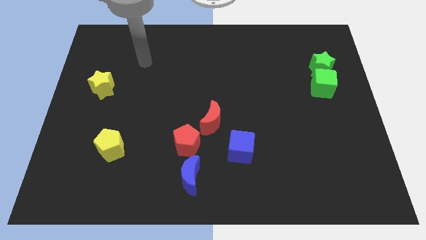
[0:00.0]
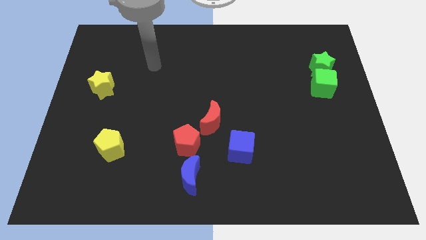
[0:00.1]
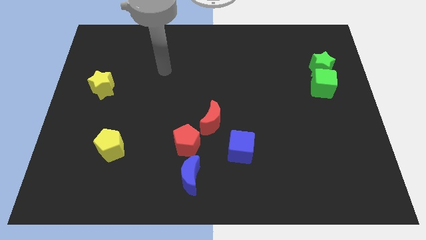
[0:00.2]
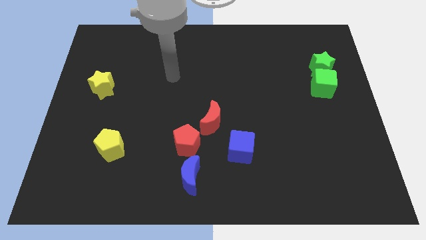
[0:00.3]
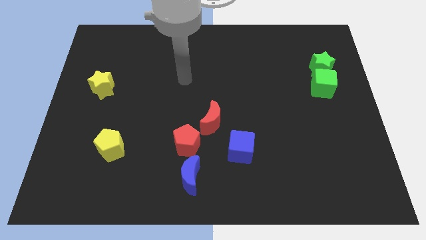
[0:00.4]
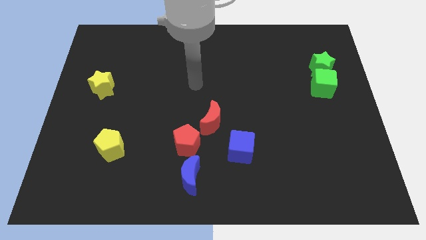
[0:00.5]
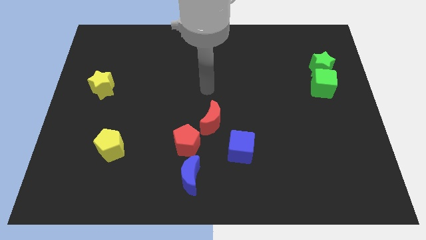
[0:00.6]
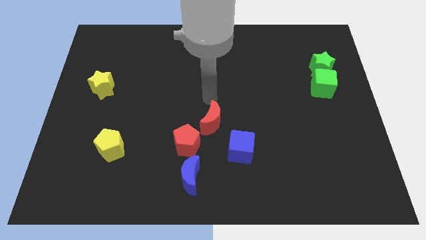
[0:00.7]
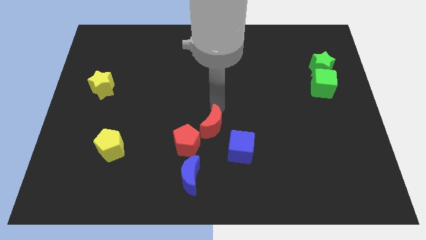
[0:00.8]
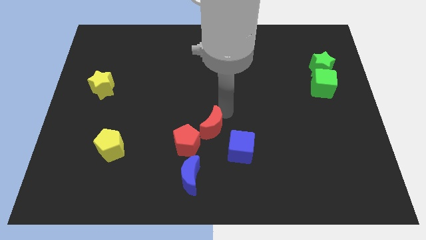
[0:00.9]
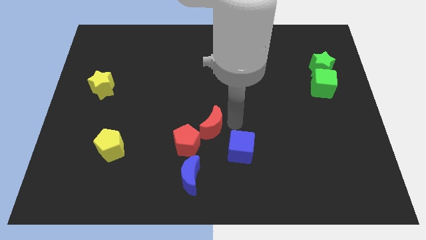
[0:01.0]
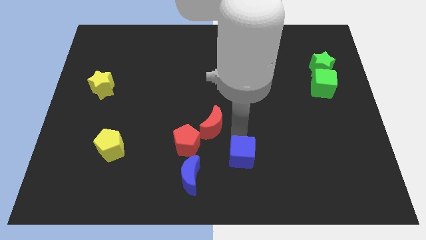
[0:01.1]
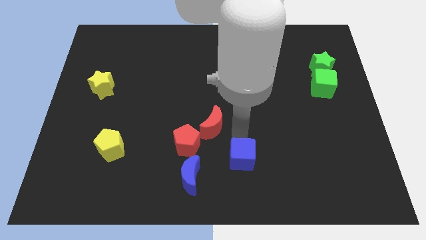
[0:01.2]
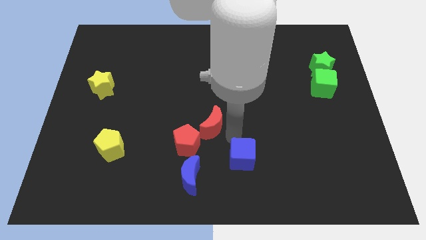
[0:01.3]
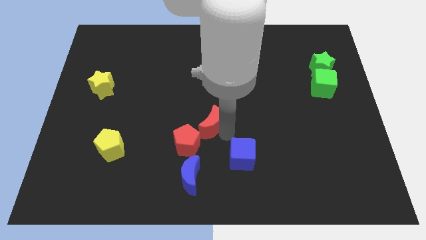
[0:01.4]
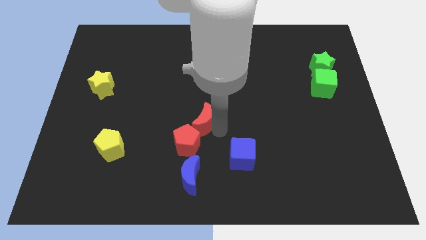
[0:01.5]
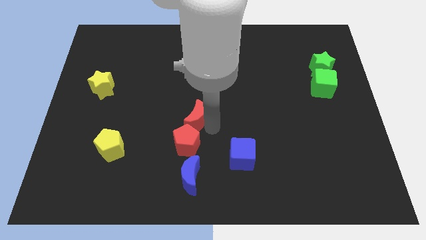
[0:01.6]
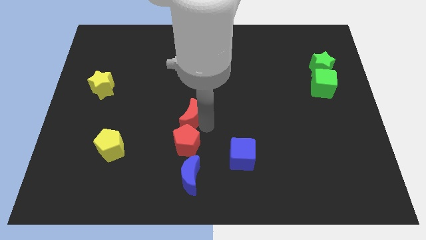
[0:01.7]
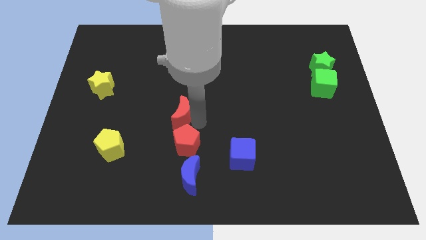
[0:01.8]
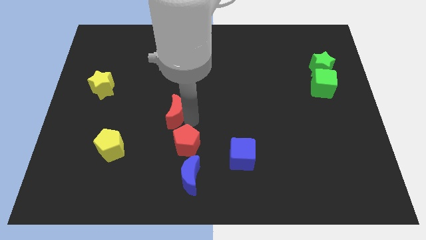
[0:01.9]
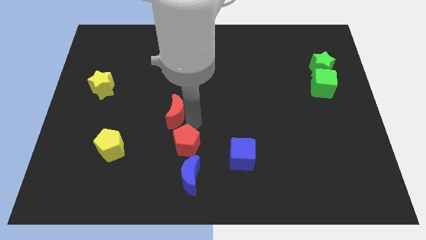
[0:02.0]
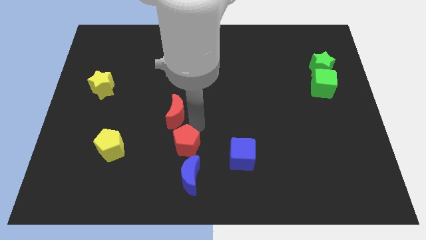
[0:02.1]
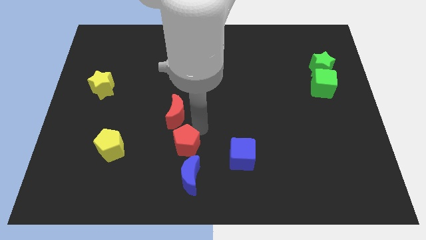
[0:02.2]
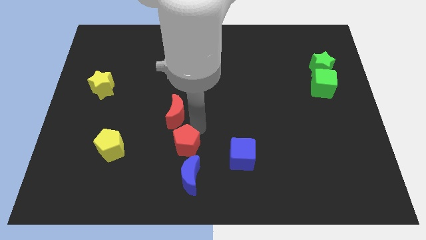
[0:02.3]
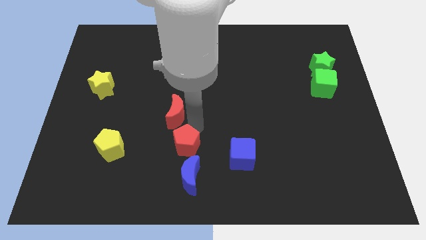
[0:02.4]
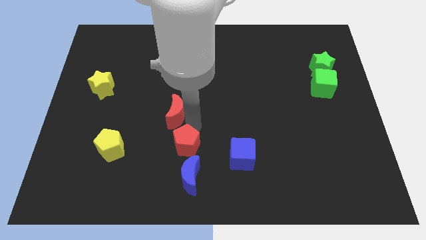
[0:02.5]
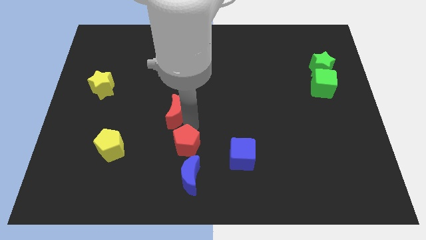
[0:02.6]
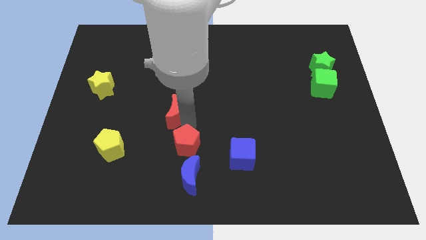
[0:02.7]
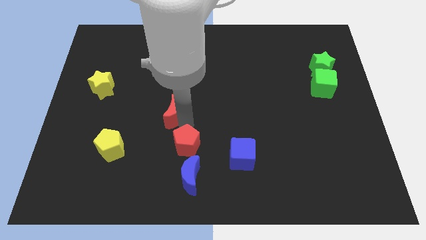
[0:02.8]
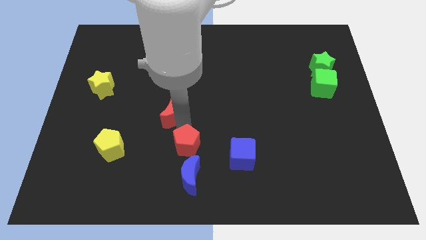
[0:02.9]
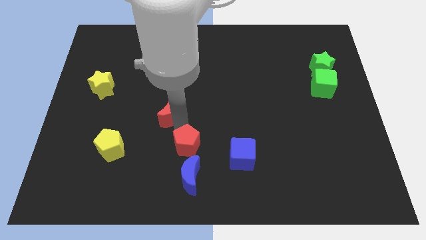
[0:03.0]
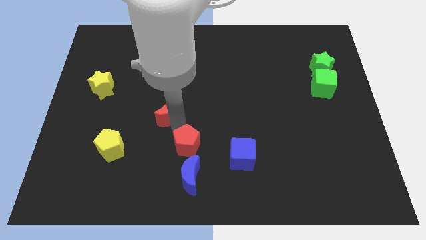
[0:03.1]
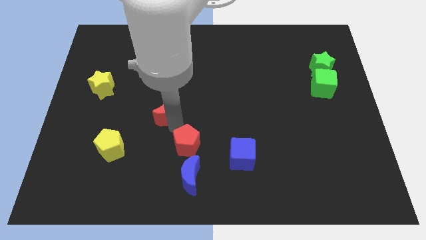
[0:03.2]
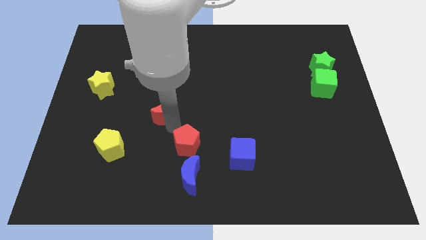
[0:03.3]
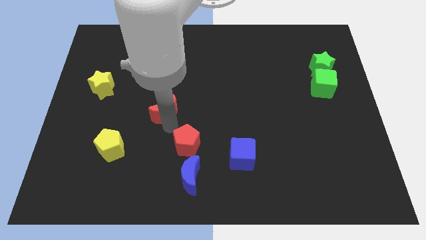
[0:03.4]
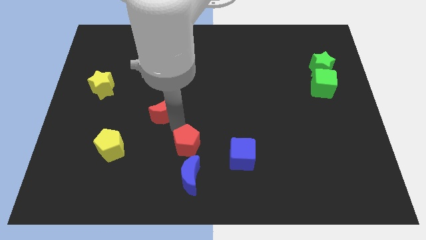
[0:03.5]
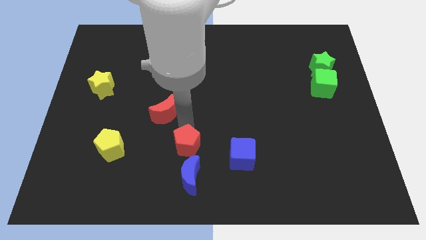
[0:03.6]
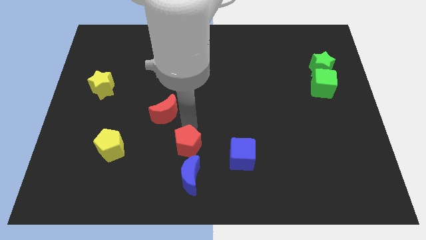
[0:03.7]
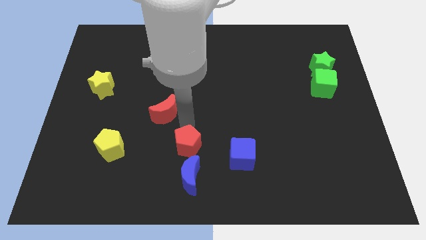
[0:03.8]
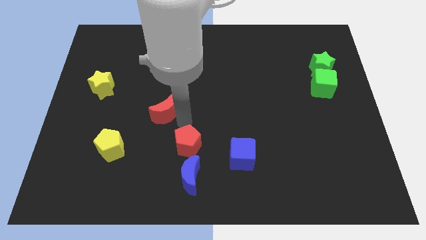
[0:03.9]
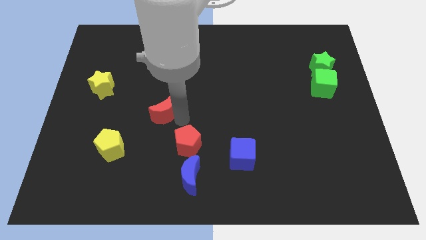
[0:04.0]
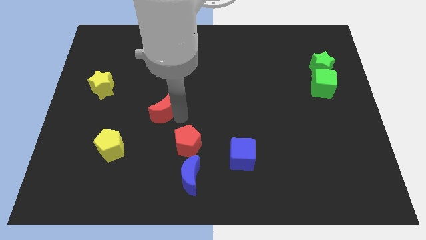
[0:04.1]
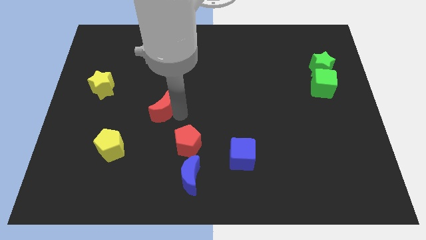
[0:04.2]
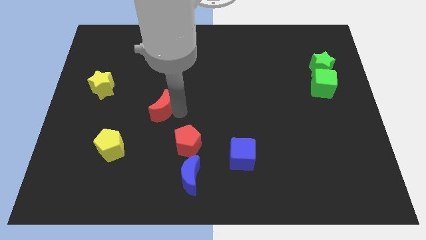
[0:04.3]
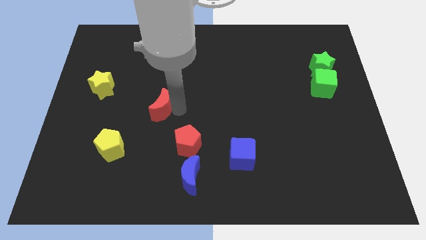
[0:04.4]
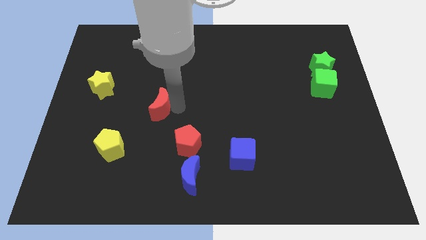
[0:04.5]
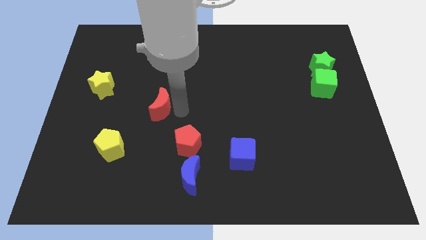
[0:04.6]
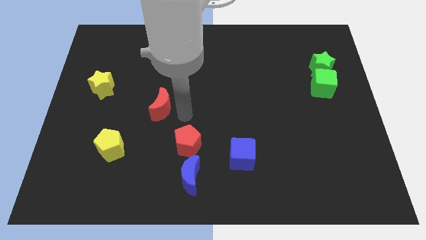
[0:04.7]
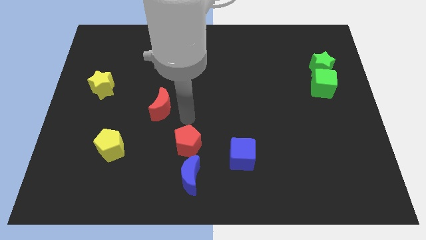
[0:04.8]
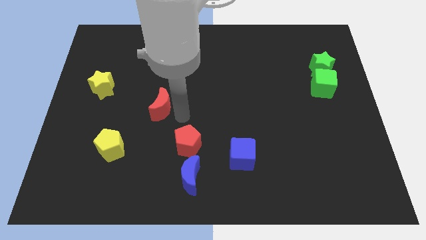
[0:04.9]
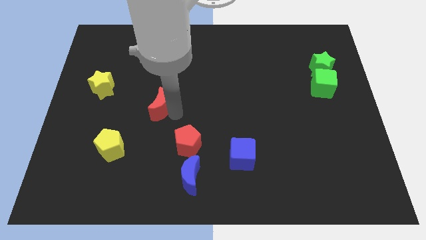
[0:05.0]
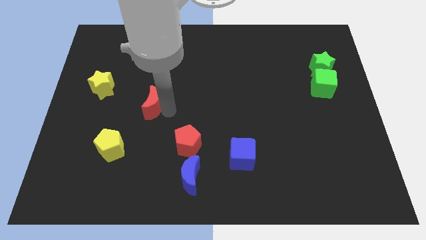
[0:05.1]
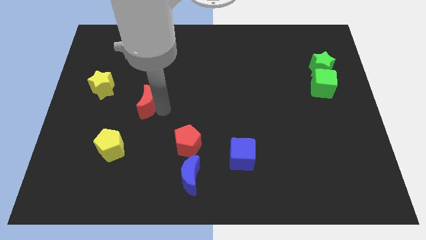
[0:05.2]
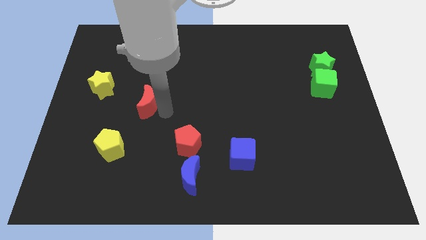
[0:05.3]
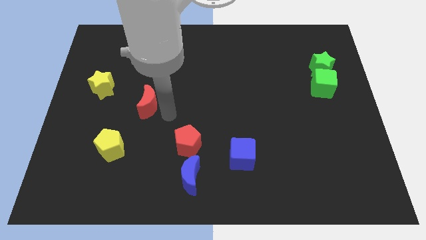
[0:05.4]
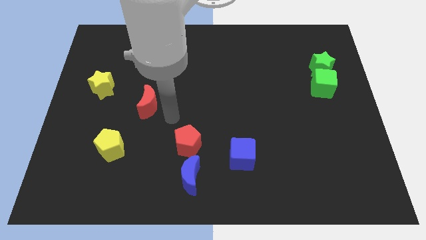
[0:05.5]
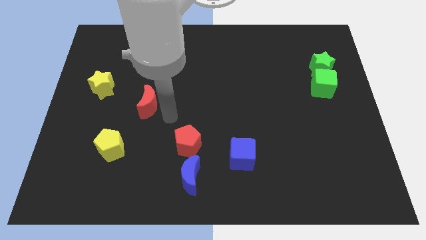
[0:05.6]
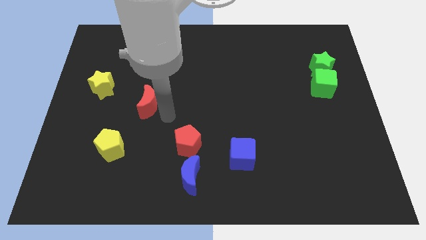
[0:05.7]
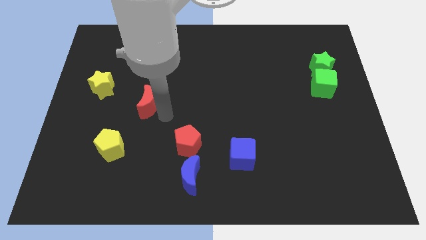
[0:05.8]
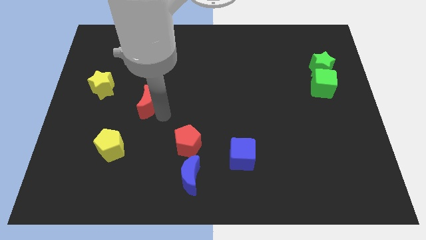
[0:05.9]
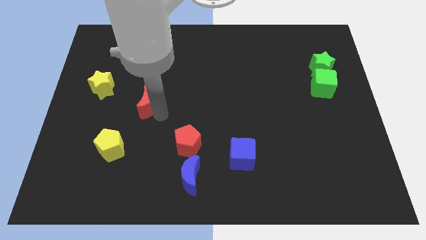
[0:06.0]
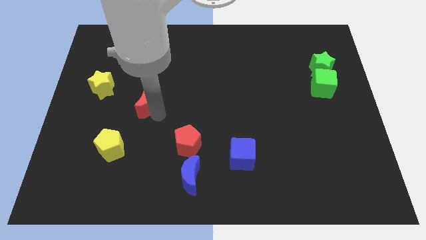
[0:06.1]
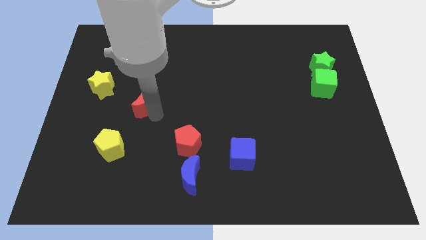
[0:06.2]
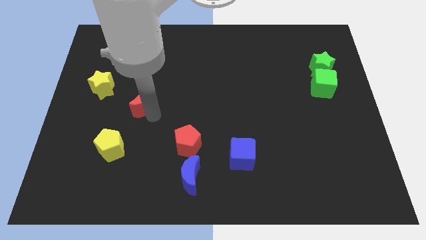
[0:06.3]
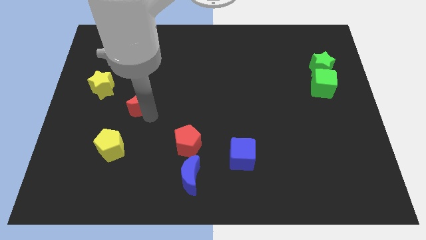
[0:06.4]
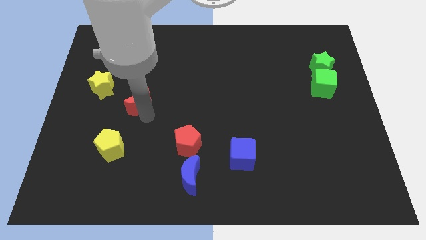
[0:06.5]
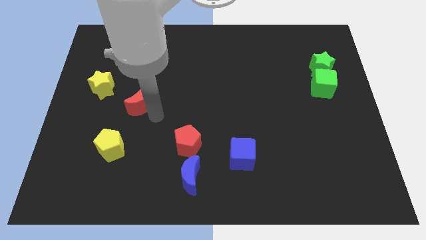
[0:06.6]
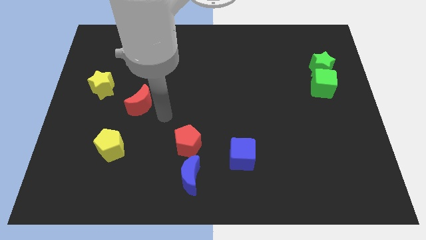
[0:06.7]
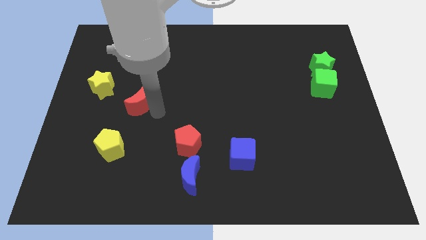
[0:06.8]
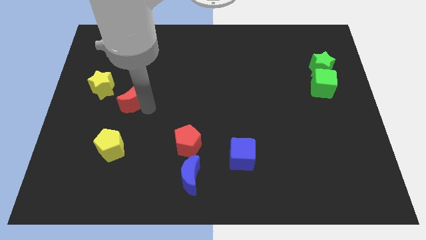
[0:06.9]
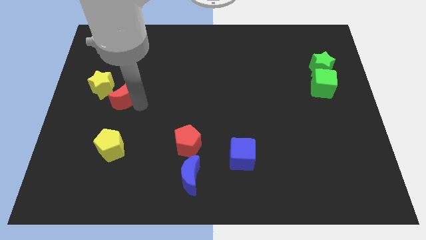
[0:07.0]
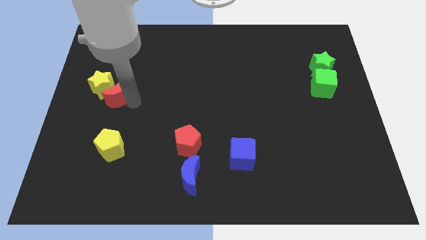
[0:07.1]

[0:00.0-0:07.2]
move the red moon next to the yellow star
